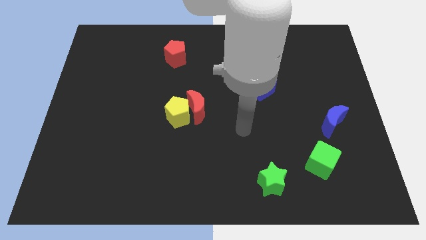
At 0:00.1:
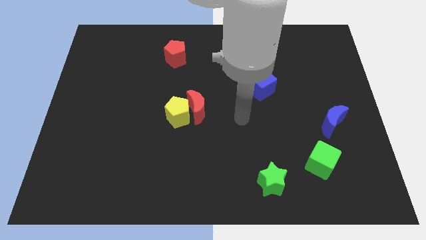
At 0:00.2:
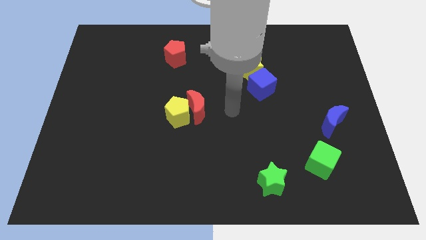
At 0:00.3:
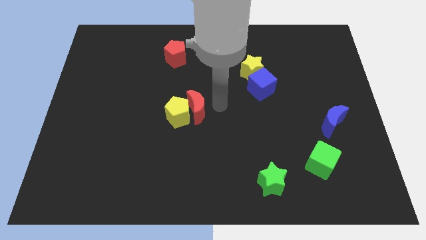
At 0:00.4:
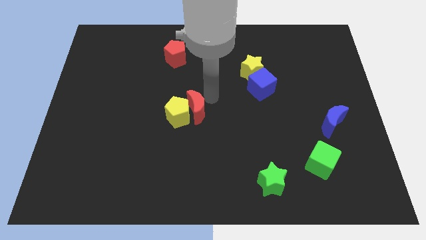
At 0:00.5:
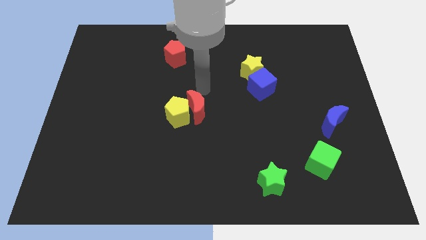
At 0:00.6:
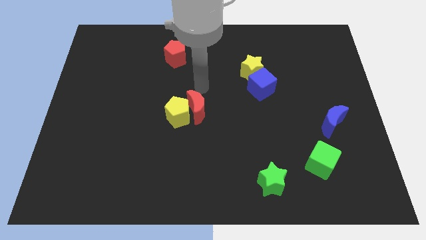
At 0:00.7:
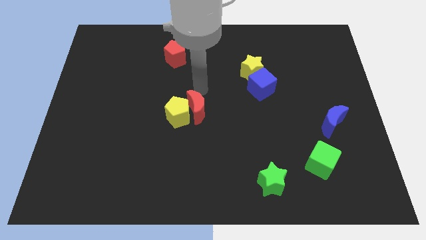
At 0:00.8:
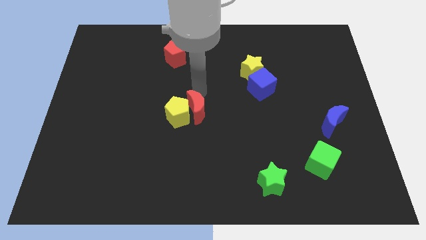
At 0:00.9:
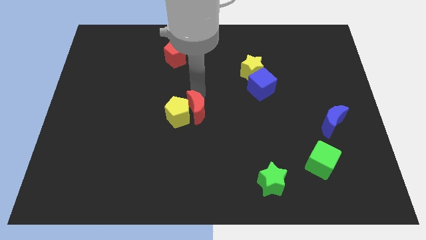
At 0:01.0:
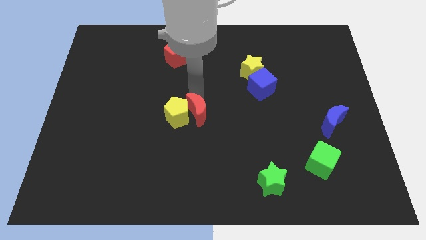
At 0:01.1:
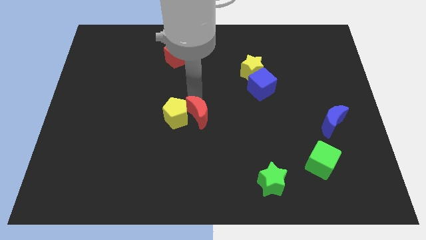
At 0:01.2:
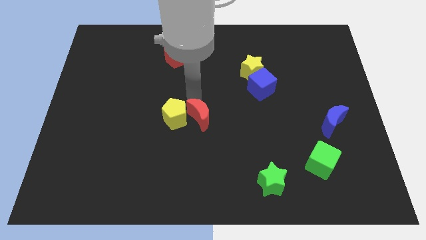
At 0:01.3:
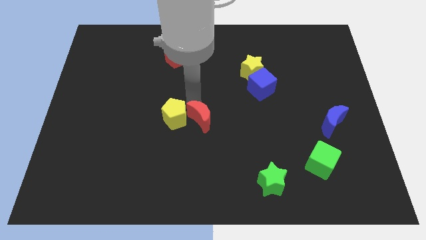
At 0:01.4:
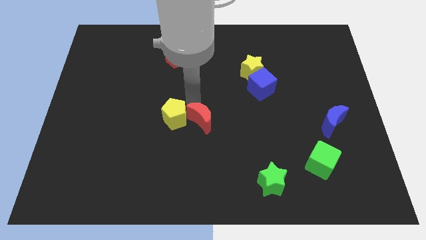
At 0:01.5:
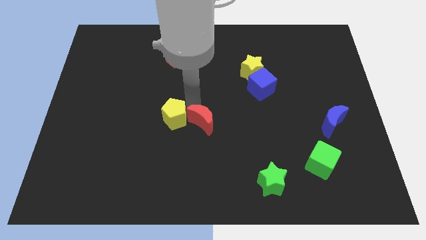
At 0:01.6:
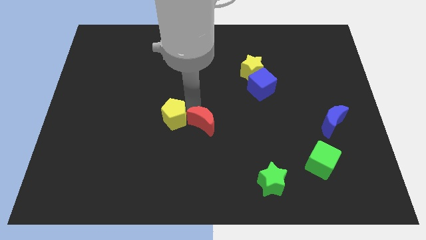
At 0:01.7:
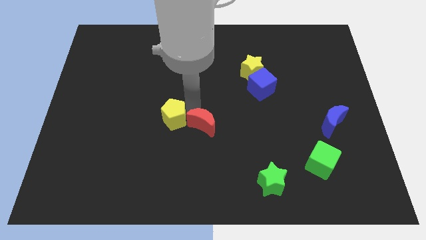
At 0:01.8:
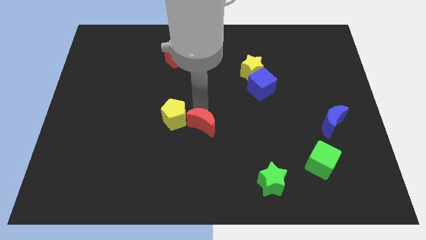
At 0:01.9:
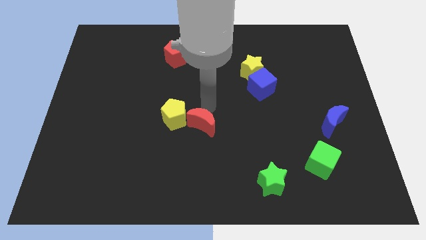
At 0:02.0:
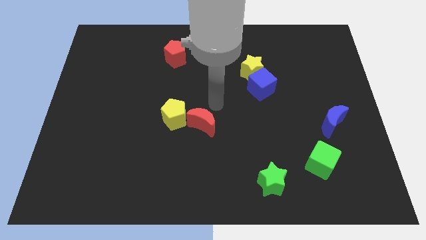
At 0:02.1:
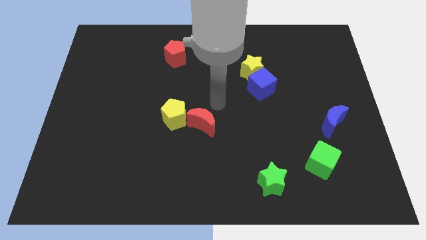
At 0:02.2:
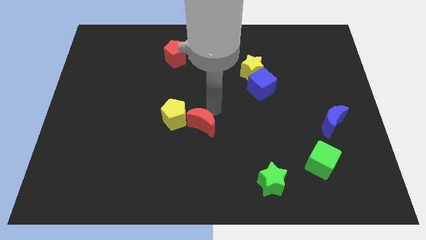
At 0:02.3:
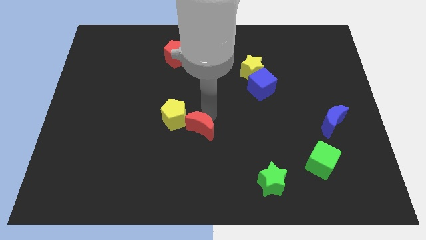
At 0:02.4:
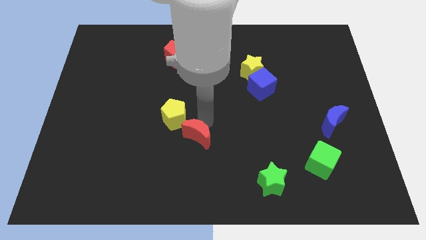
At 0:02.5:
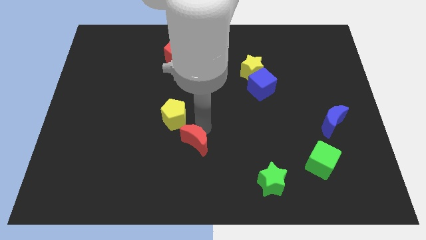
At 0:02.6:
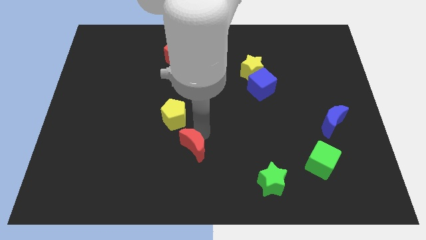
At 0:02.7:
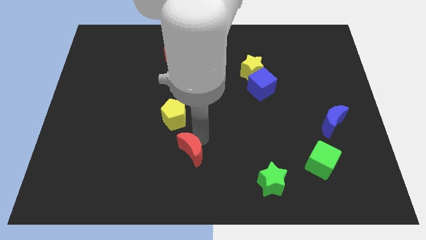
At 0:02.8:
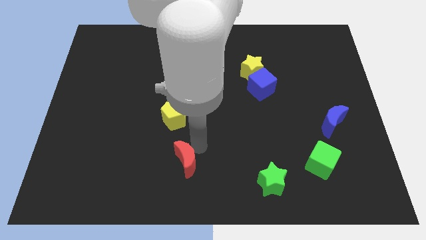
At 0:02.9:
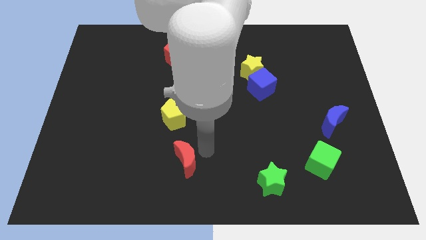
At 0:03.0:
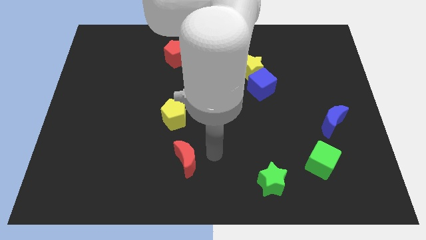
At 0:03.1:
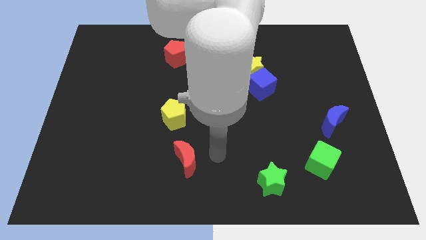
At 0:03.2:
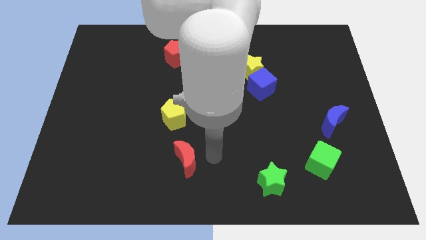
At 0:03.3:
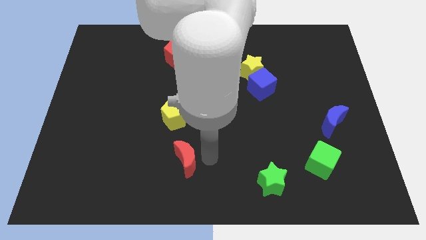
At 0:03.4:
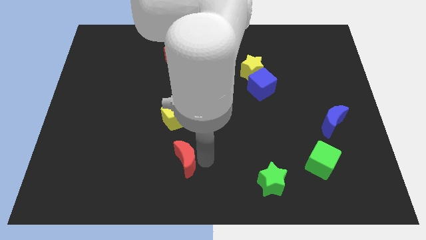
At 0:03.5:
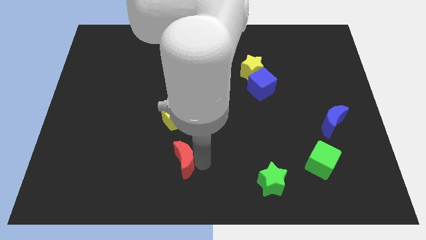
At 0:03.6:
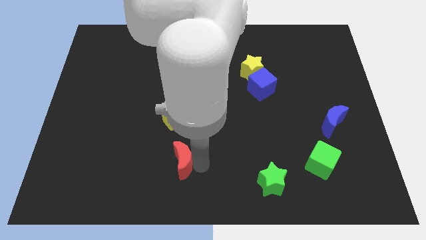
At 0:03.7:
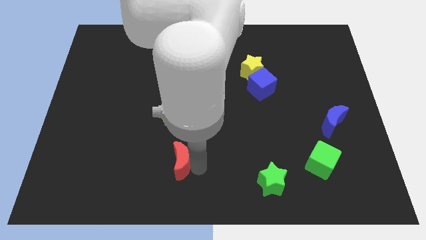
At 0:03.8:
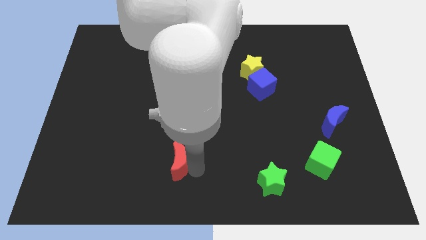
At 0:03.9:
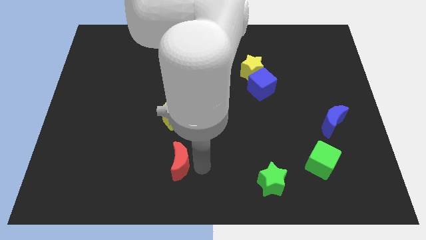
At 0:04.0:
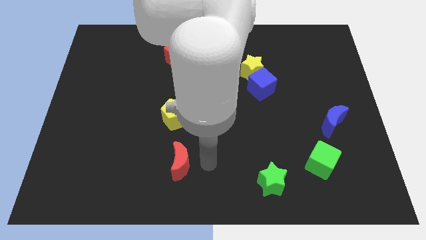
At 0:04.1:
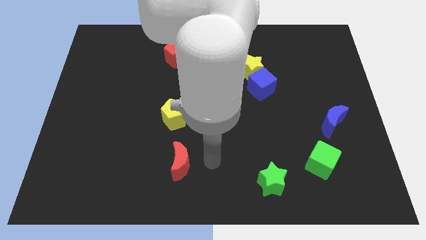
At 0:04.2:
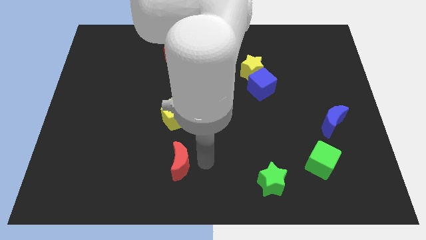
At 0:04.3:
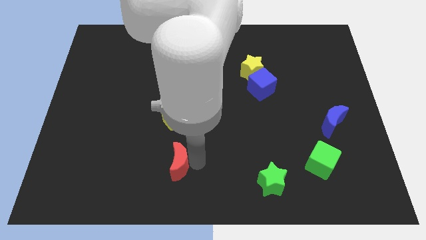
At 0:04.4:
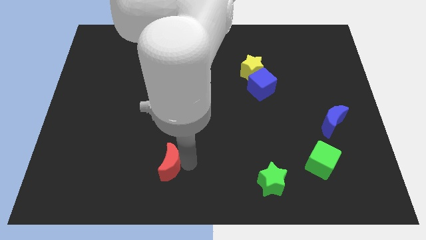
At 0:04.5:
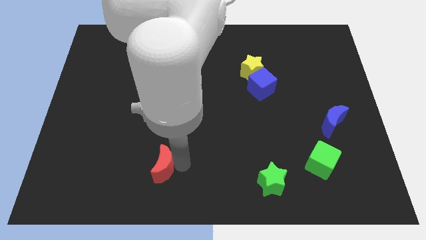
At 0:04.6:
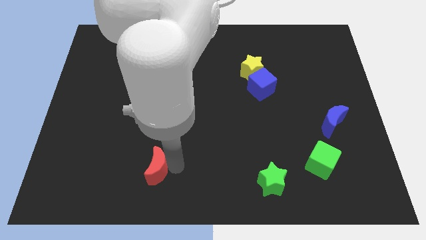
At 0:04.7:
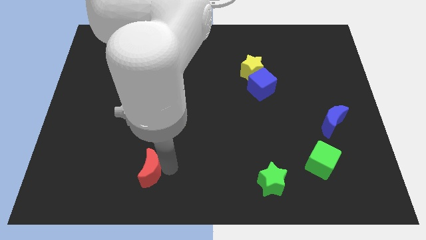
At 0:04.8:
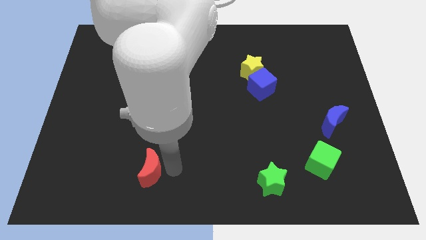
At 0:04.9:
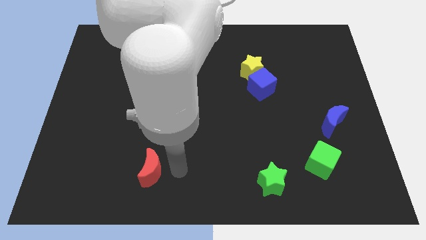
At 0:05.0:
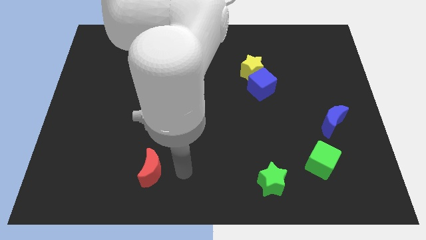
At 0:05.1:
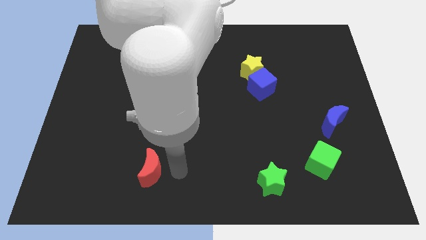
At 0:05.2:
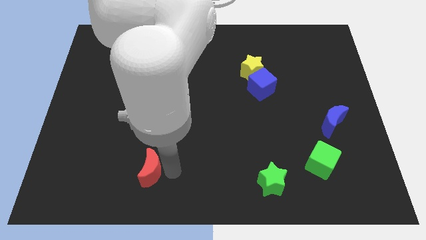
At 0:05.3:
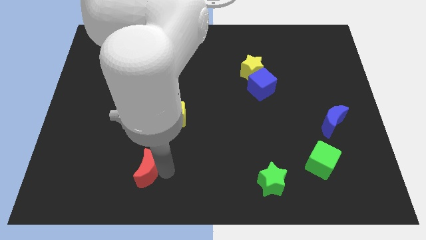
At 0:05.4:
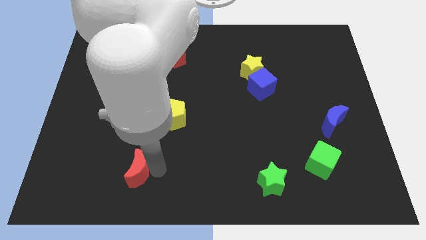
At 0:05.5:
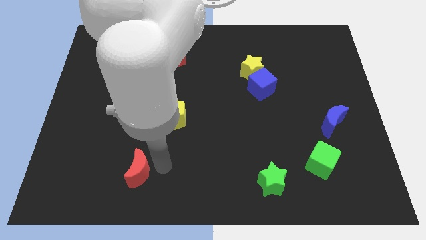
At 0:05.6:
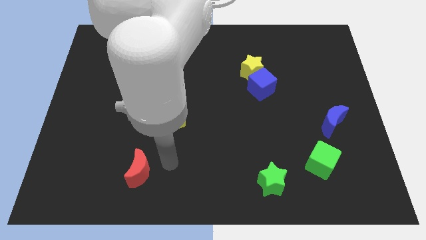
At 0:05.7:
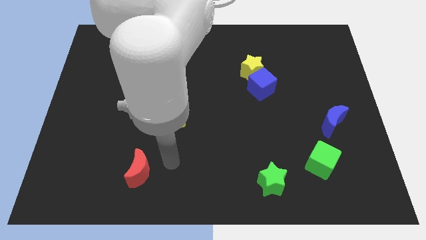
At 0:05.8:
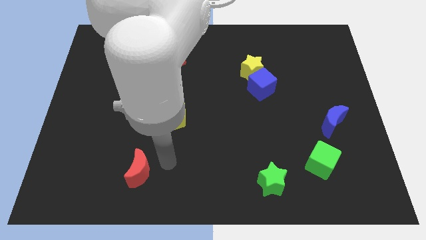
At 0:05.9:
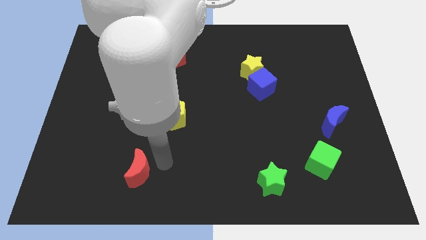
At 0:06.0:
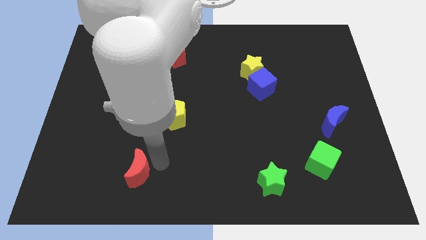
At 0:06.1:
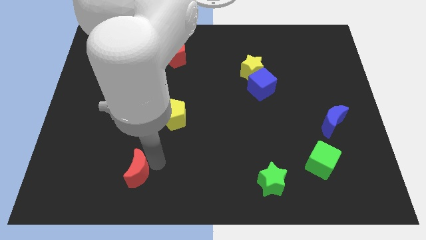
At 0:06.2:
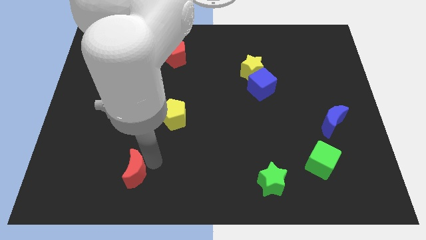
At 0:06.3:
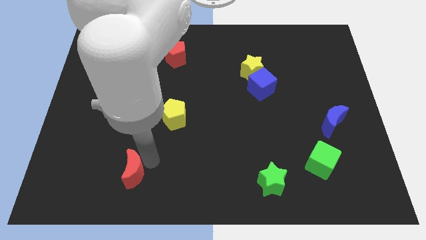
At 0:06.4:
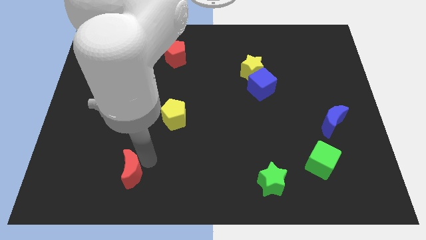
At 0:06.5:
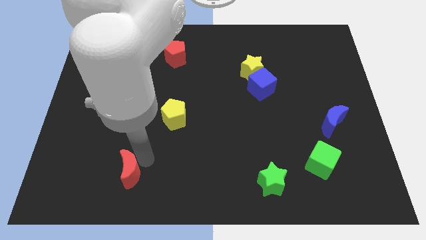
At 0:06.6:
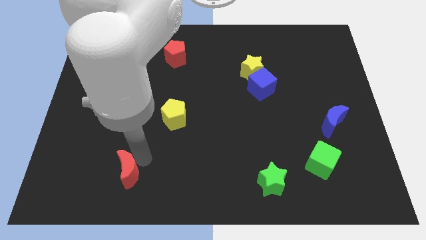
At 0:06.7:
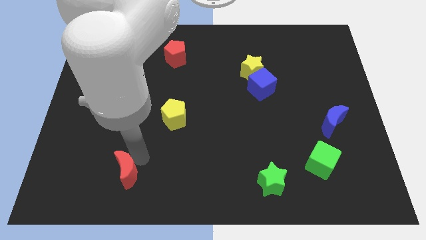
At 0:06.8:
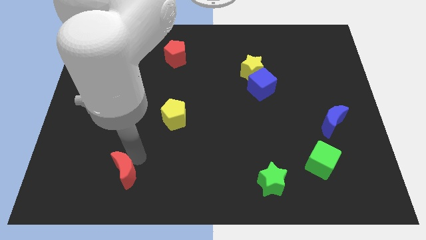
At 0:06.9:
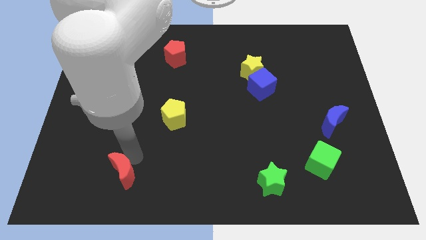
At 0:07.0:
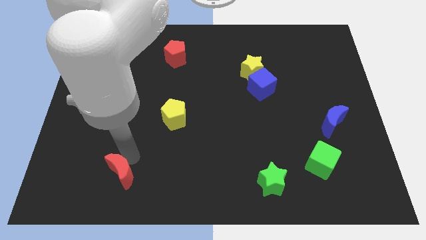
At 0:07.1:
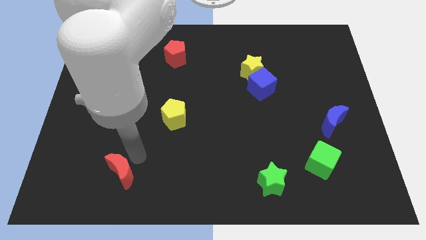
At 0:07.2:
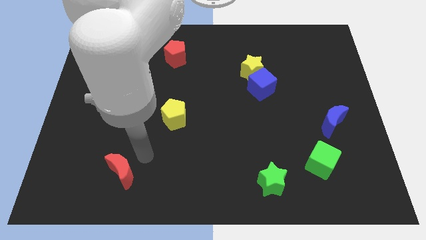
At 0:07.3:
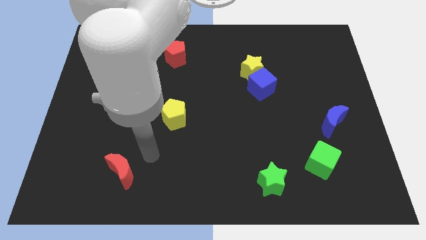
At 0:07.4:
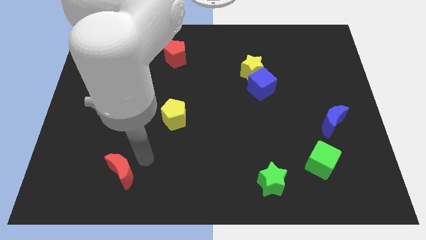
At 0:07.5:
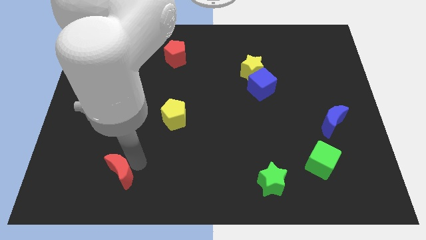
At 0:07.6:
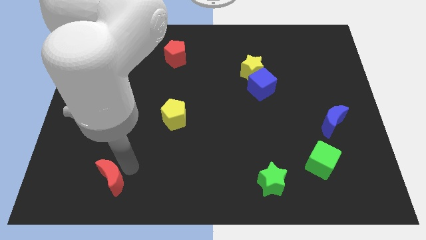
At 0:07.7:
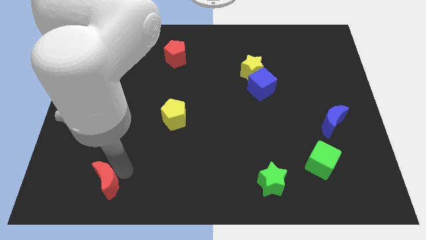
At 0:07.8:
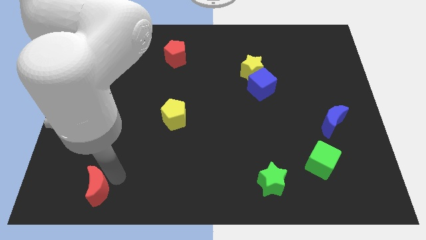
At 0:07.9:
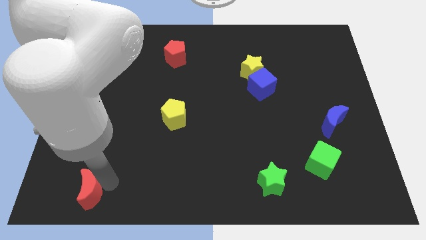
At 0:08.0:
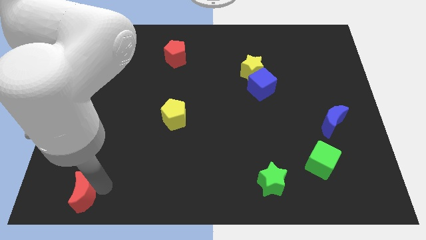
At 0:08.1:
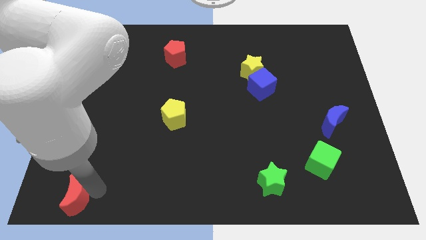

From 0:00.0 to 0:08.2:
move the red moon to the lower left corner
